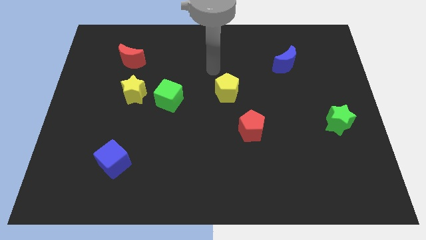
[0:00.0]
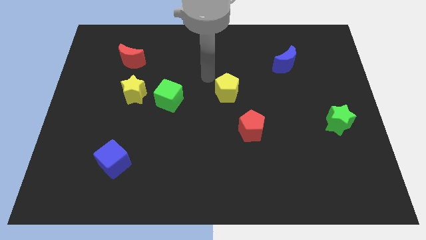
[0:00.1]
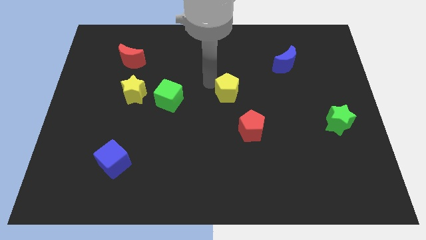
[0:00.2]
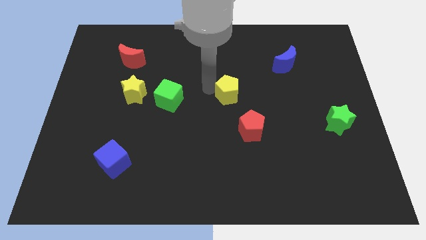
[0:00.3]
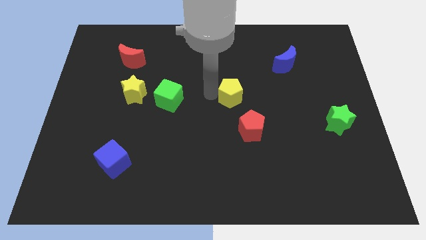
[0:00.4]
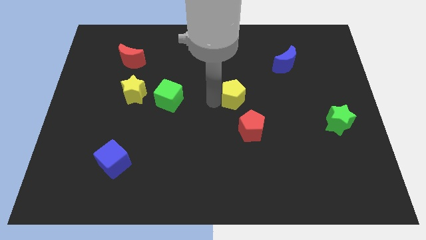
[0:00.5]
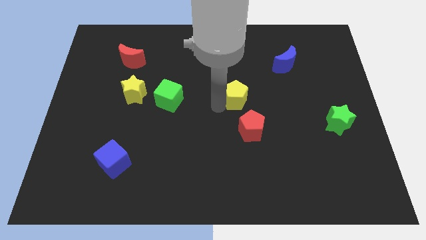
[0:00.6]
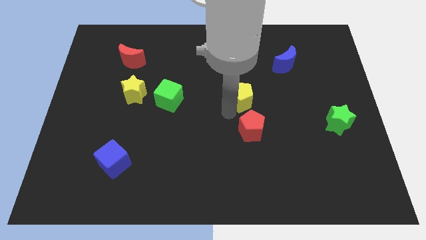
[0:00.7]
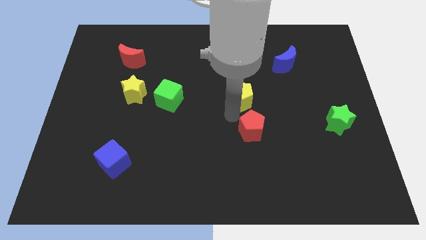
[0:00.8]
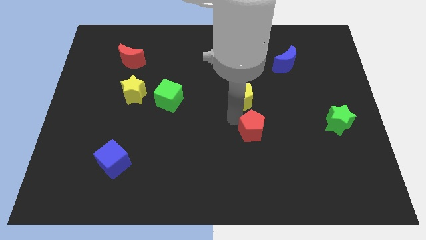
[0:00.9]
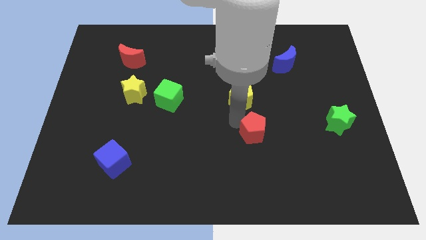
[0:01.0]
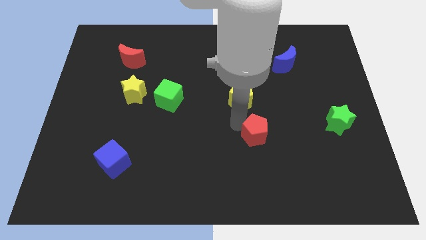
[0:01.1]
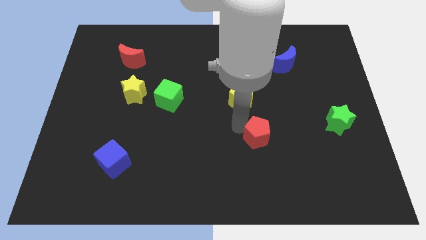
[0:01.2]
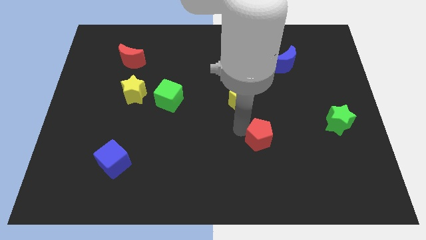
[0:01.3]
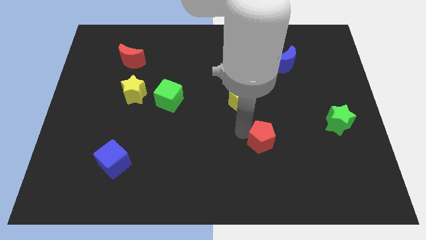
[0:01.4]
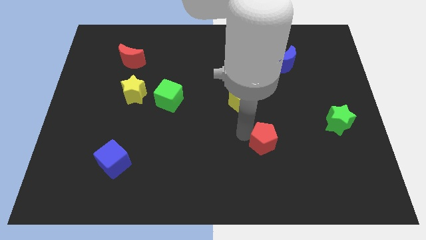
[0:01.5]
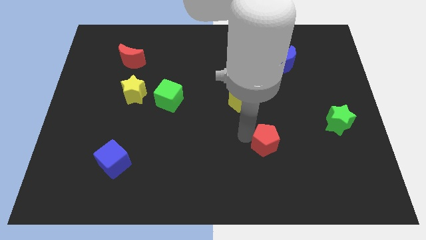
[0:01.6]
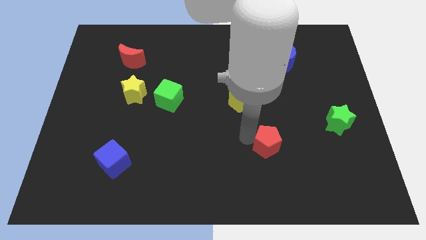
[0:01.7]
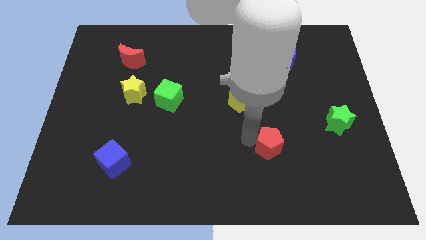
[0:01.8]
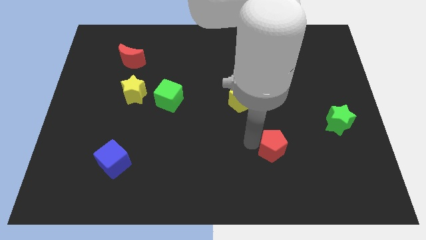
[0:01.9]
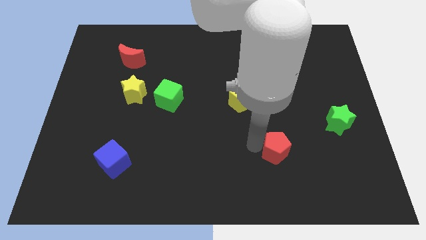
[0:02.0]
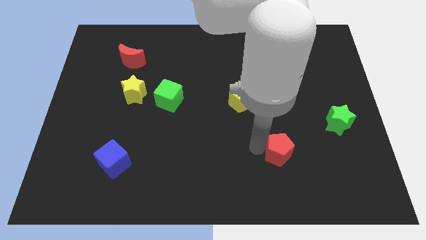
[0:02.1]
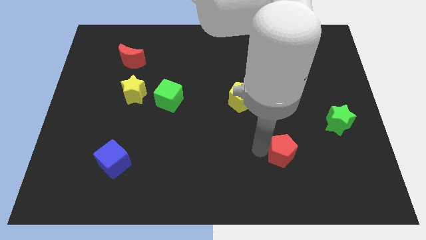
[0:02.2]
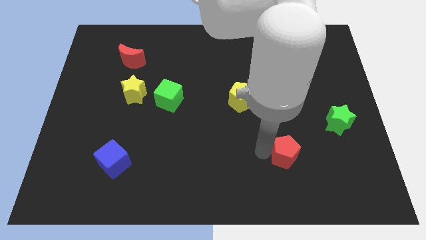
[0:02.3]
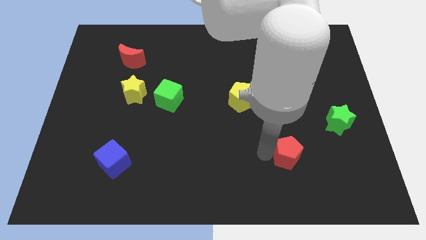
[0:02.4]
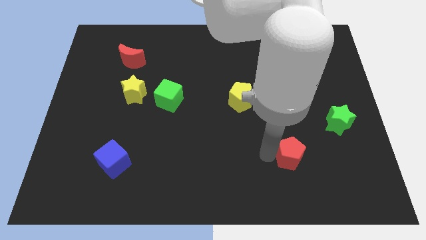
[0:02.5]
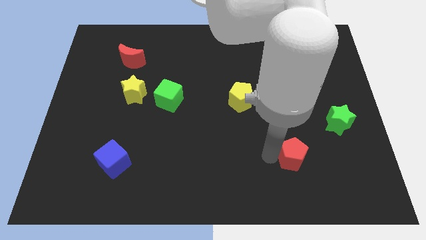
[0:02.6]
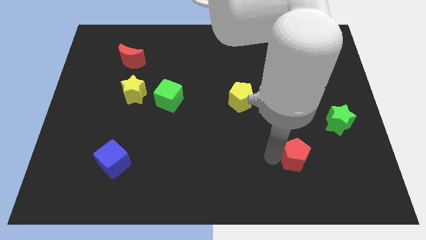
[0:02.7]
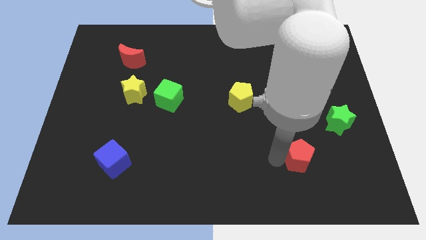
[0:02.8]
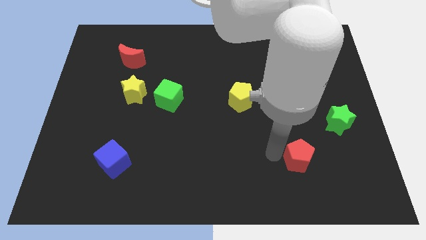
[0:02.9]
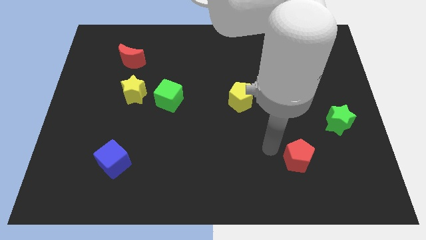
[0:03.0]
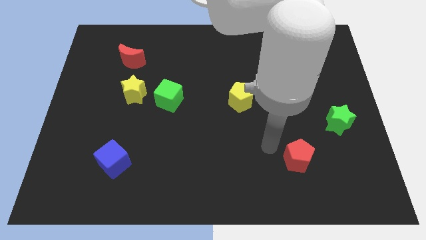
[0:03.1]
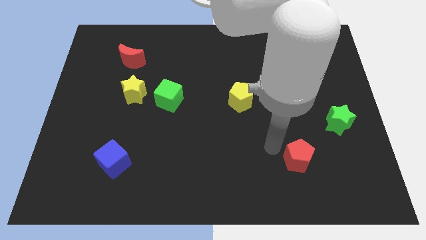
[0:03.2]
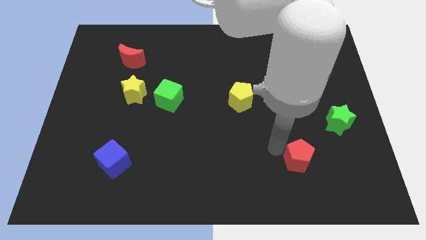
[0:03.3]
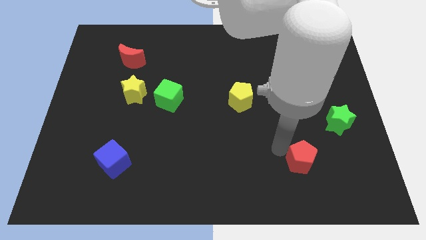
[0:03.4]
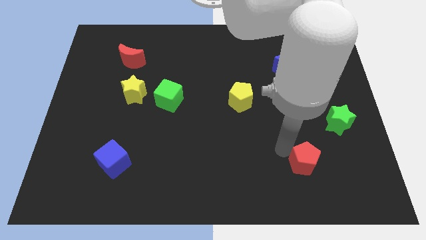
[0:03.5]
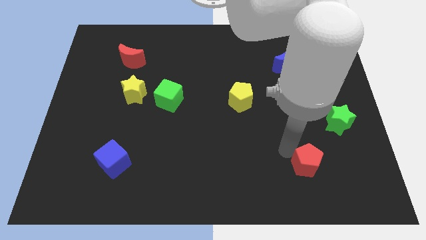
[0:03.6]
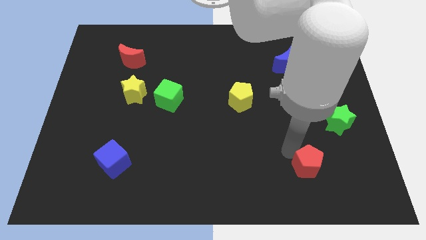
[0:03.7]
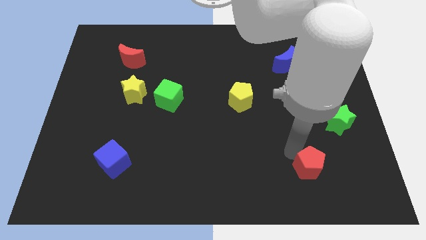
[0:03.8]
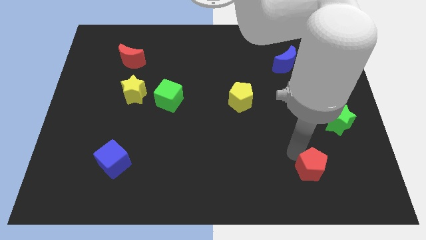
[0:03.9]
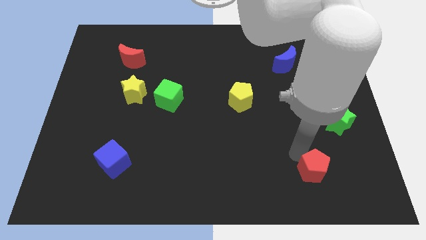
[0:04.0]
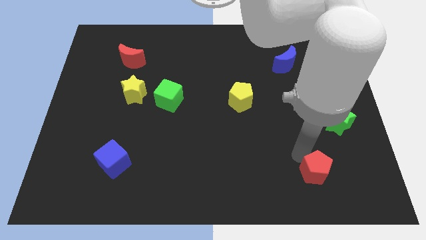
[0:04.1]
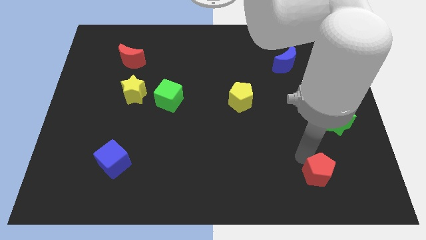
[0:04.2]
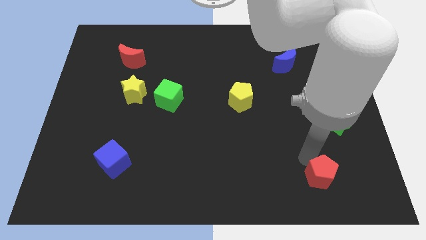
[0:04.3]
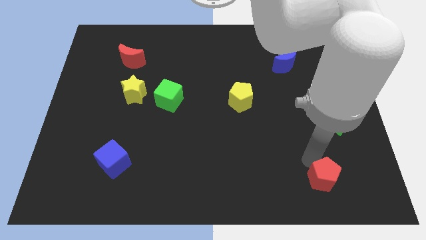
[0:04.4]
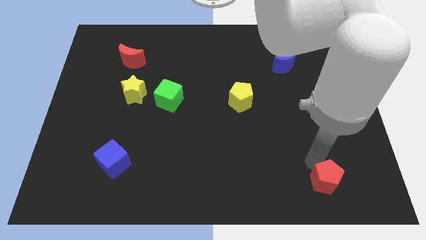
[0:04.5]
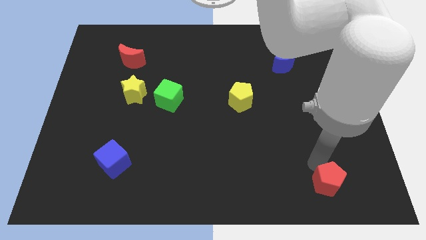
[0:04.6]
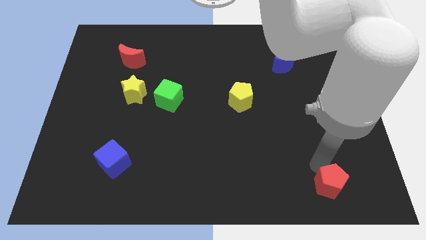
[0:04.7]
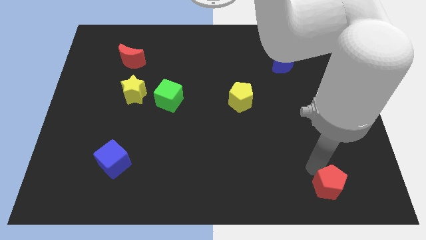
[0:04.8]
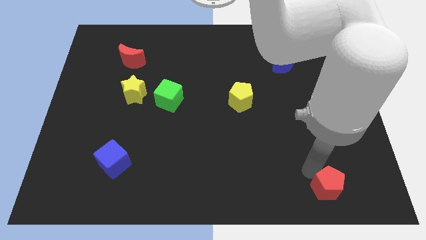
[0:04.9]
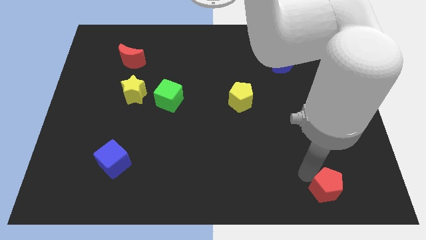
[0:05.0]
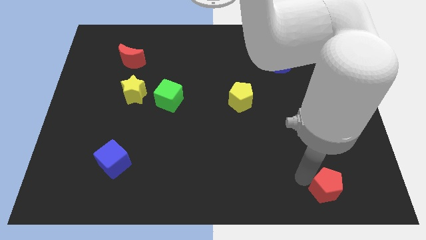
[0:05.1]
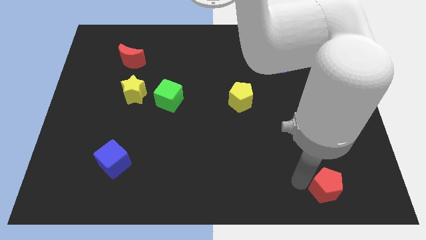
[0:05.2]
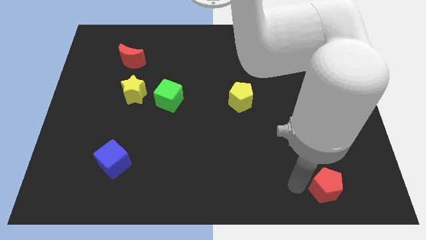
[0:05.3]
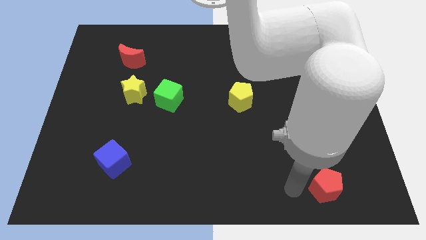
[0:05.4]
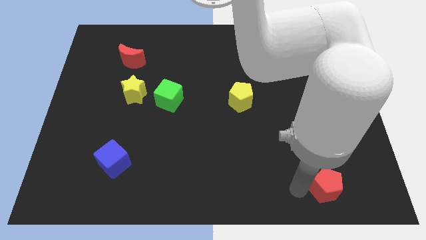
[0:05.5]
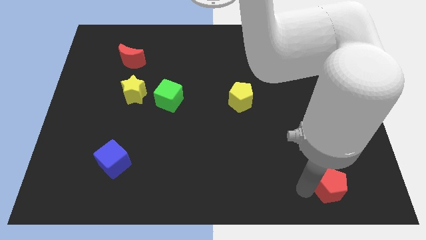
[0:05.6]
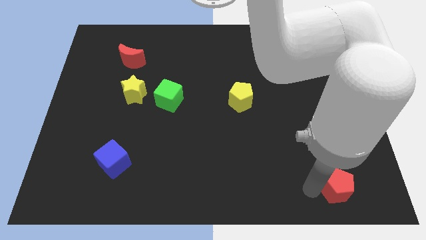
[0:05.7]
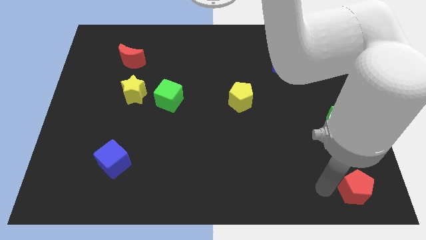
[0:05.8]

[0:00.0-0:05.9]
put the red pentagon to the bottom right corner
